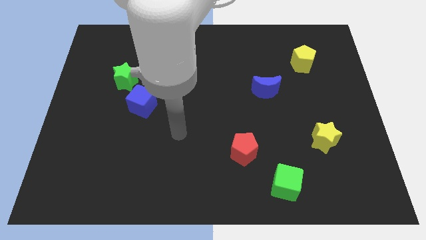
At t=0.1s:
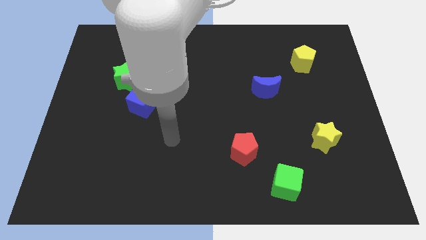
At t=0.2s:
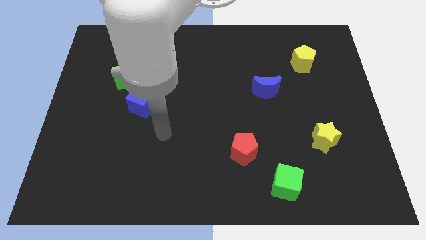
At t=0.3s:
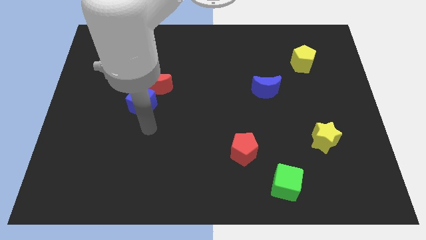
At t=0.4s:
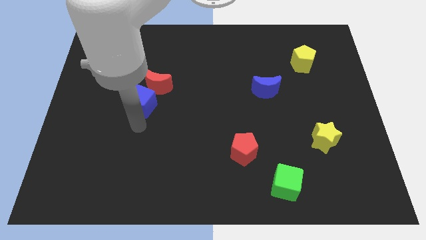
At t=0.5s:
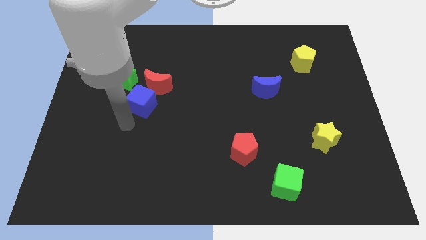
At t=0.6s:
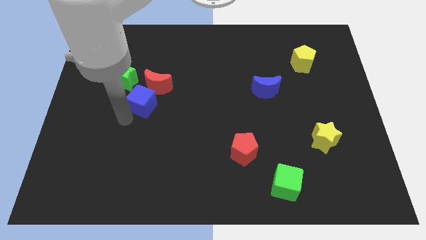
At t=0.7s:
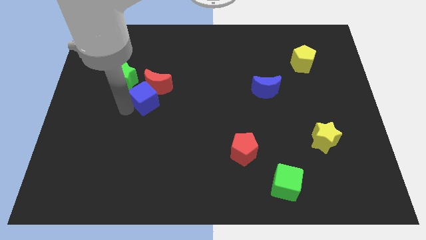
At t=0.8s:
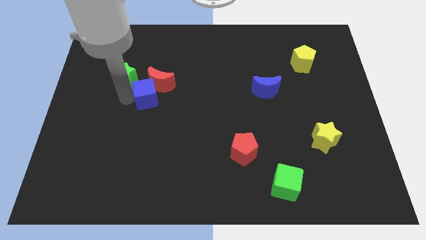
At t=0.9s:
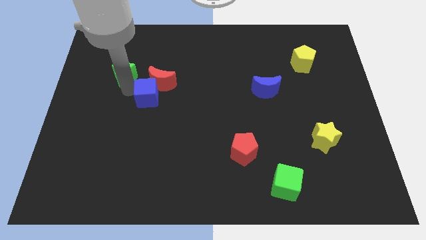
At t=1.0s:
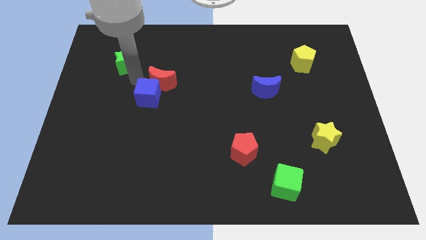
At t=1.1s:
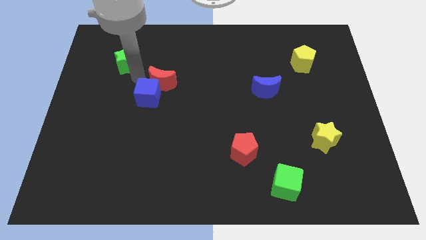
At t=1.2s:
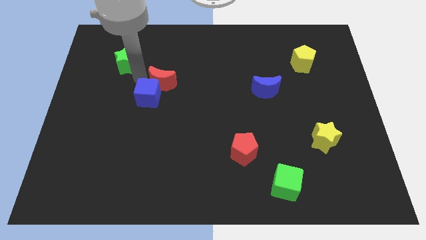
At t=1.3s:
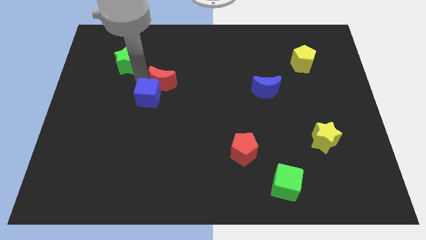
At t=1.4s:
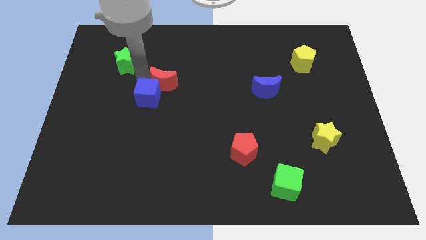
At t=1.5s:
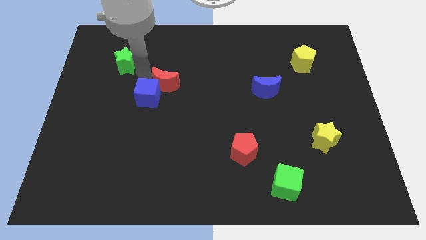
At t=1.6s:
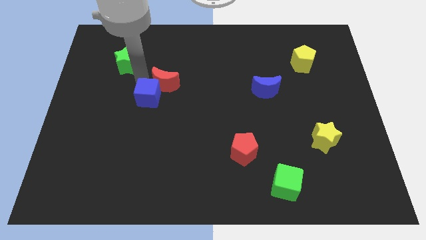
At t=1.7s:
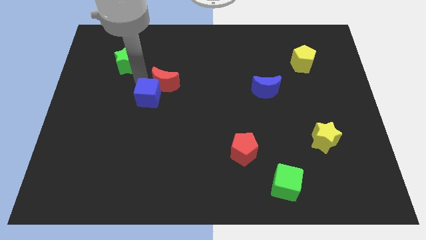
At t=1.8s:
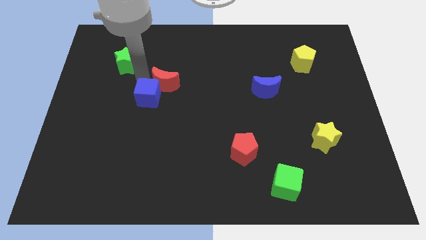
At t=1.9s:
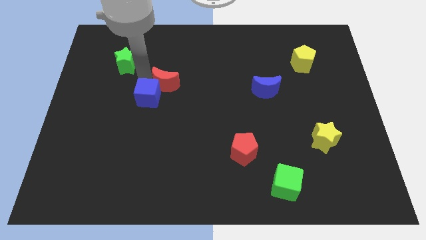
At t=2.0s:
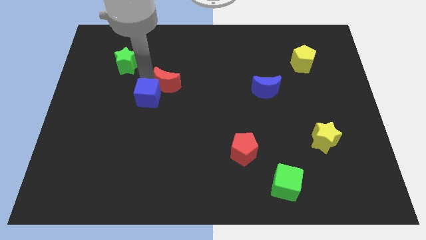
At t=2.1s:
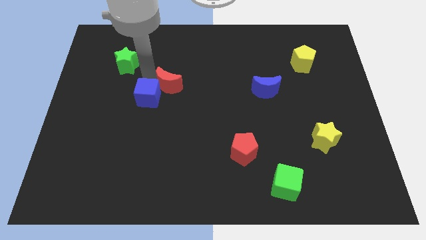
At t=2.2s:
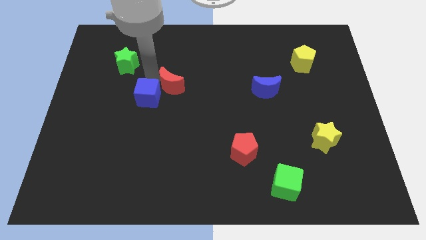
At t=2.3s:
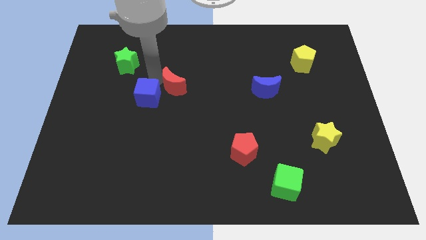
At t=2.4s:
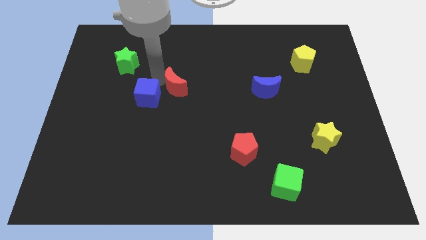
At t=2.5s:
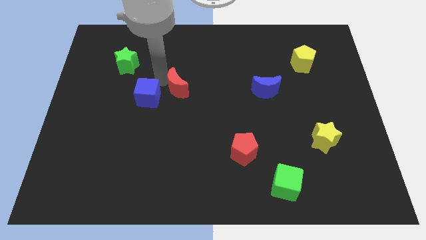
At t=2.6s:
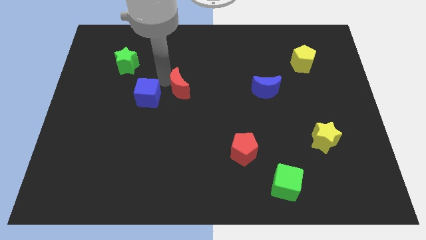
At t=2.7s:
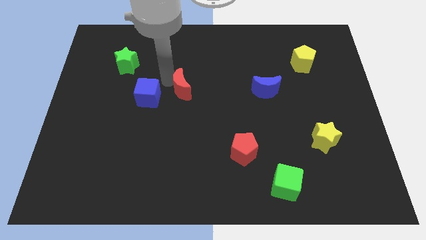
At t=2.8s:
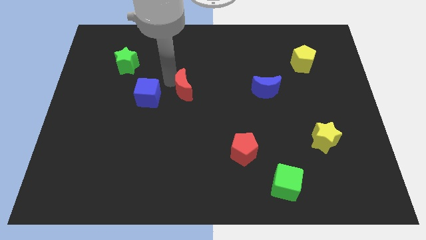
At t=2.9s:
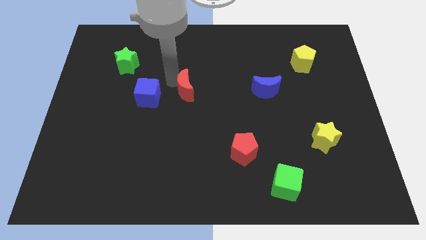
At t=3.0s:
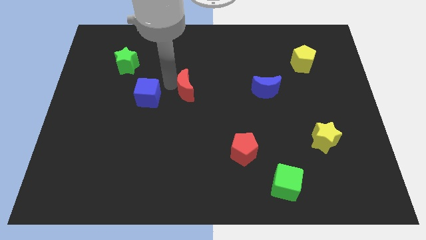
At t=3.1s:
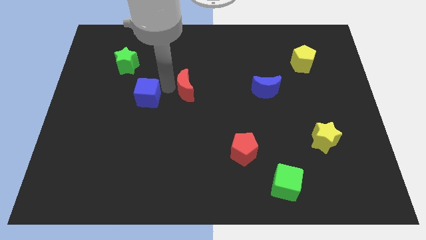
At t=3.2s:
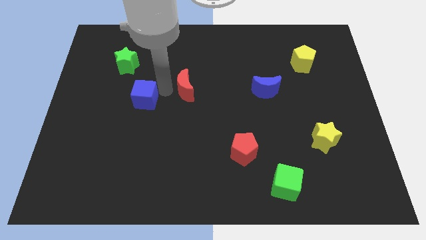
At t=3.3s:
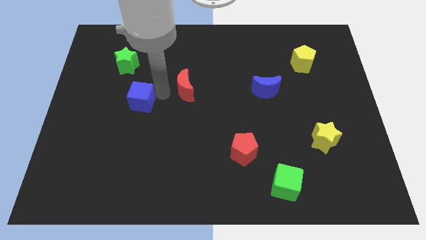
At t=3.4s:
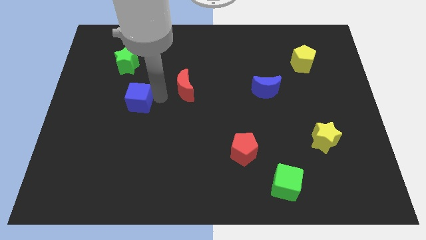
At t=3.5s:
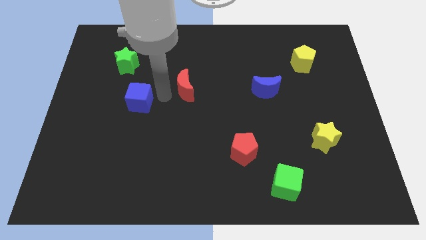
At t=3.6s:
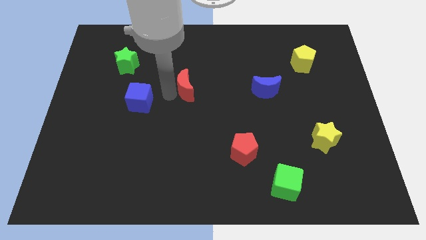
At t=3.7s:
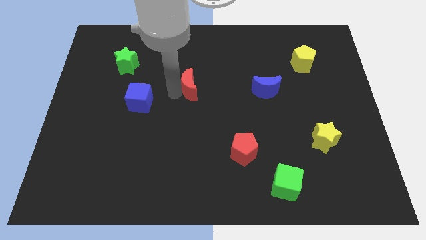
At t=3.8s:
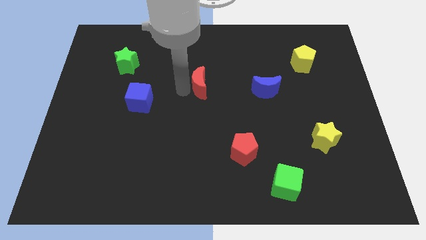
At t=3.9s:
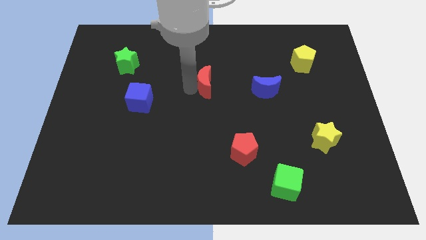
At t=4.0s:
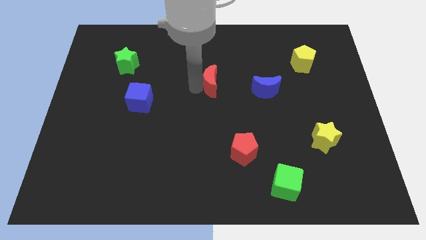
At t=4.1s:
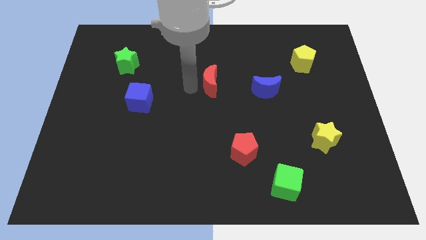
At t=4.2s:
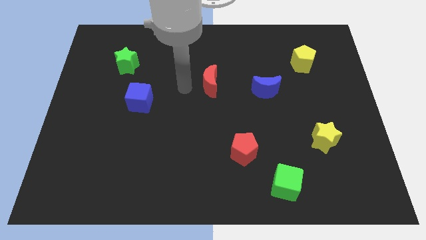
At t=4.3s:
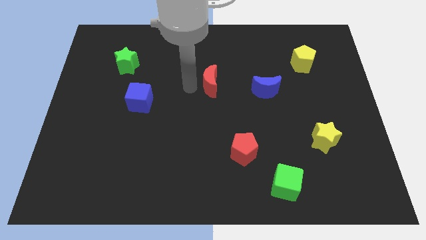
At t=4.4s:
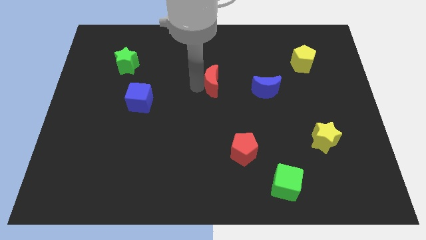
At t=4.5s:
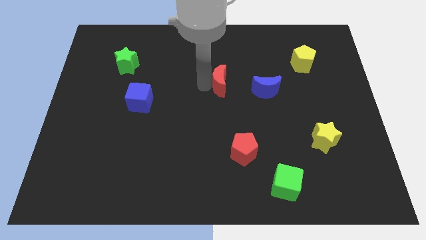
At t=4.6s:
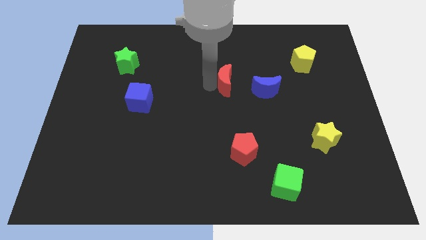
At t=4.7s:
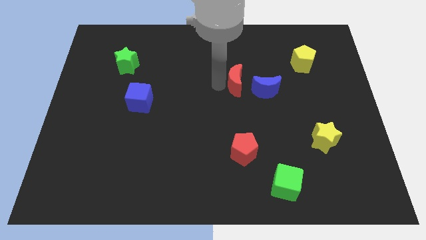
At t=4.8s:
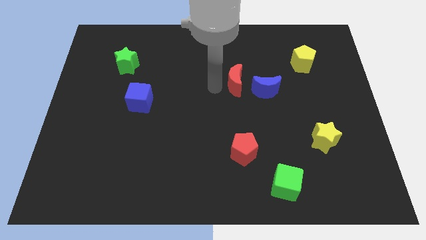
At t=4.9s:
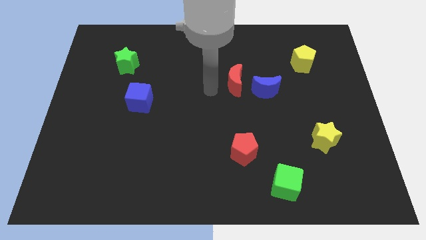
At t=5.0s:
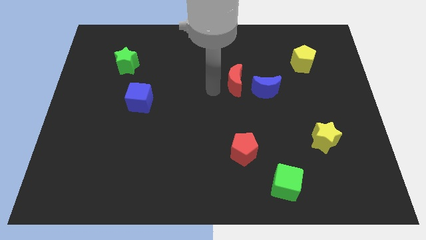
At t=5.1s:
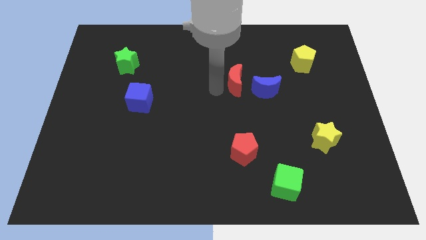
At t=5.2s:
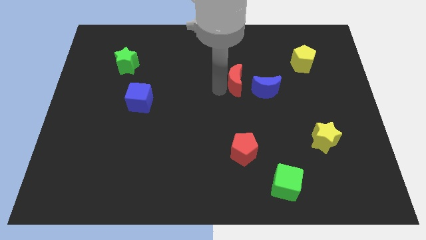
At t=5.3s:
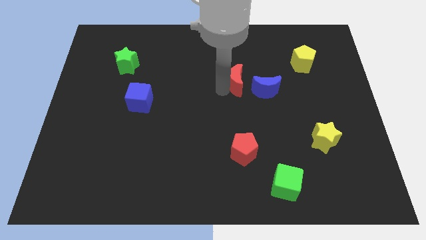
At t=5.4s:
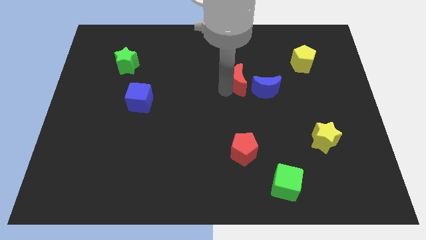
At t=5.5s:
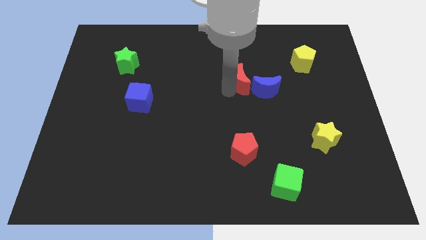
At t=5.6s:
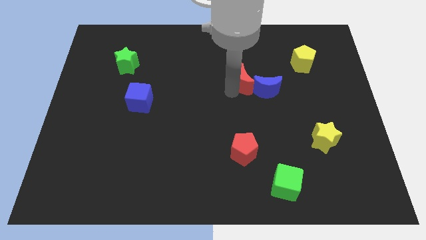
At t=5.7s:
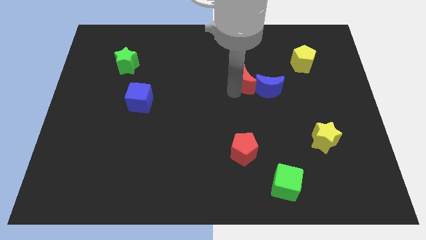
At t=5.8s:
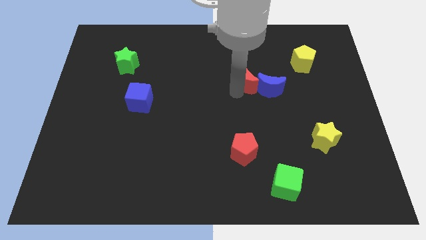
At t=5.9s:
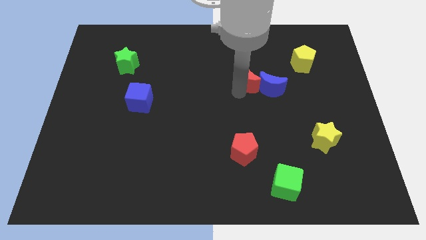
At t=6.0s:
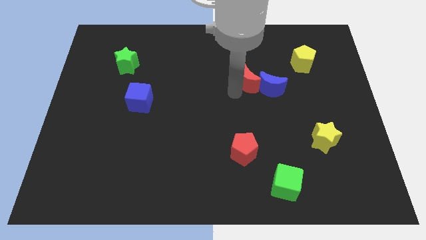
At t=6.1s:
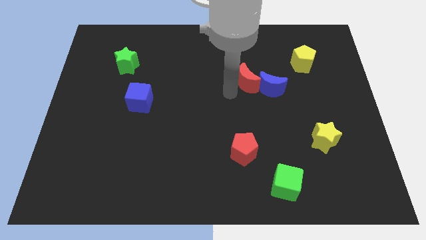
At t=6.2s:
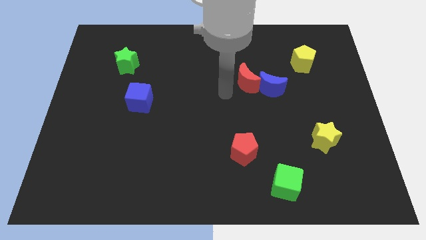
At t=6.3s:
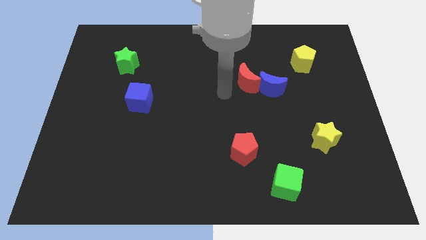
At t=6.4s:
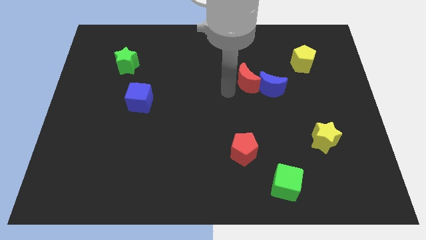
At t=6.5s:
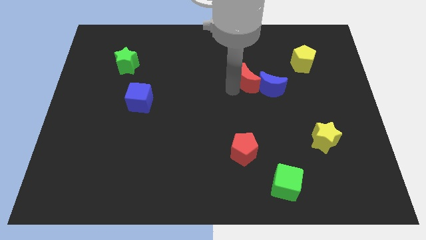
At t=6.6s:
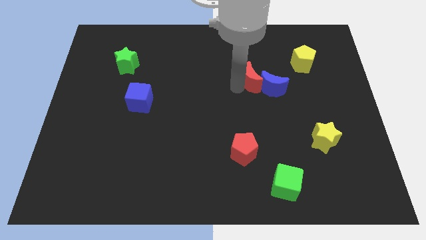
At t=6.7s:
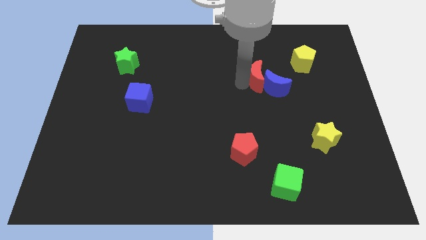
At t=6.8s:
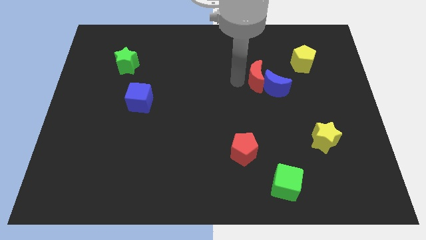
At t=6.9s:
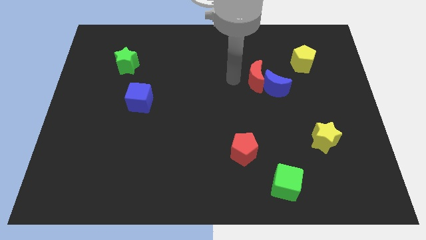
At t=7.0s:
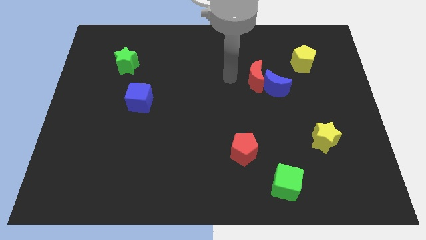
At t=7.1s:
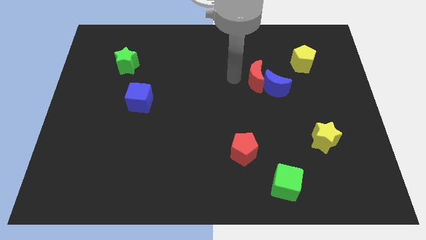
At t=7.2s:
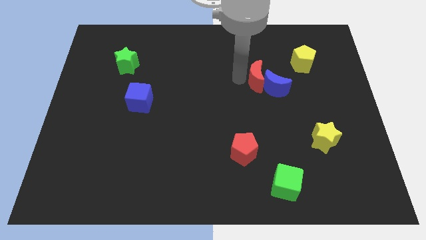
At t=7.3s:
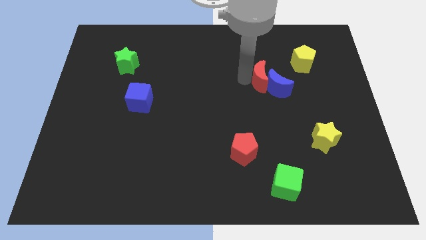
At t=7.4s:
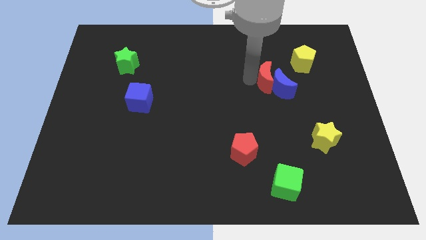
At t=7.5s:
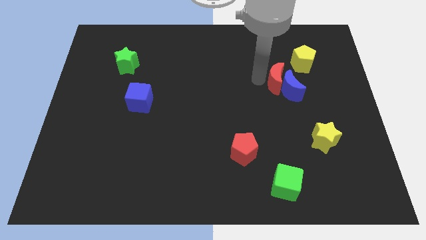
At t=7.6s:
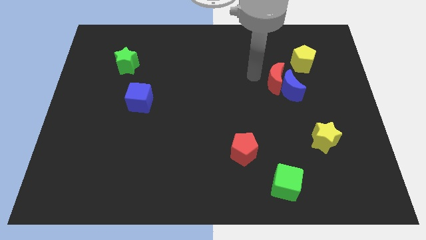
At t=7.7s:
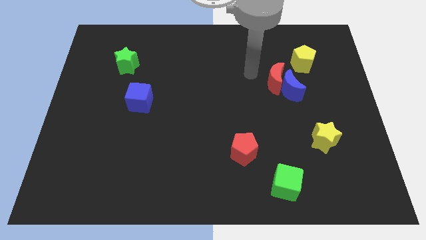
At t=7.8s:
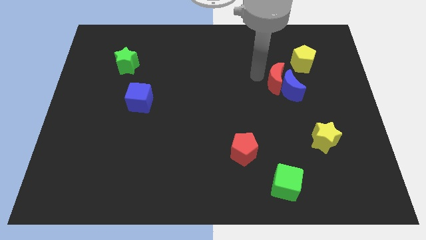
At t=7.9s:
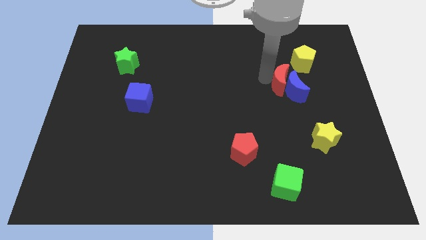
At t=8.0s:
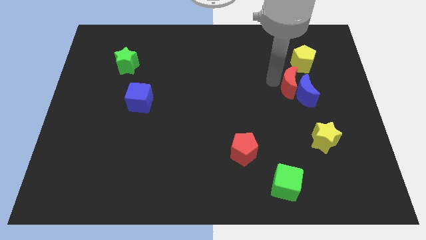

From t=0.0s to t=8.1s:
slide the red moon to the bottom side of the yellow pentagon
